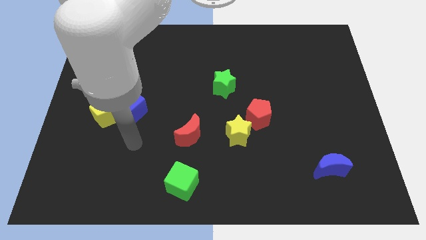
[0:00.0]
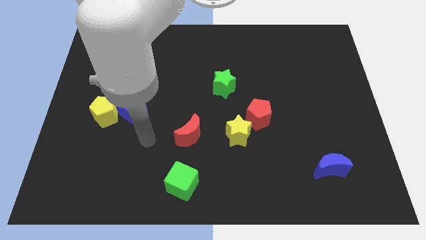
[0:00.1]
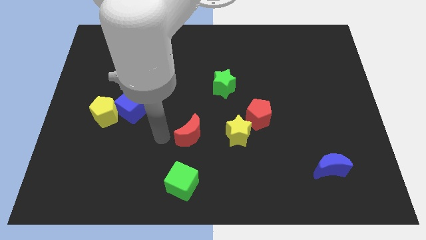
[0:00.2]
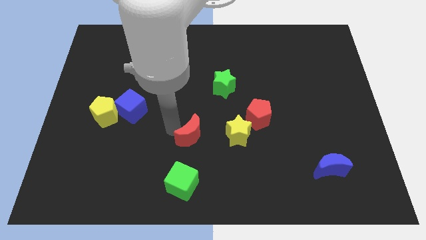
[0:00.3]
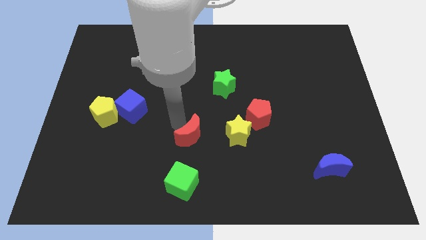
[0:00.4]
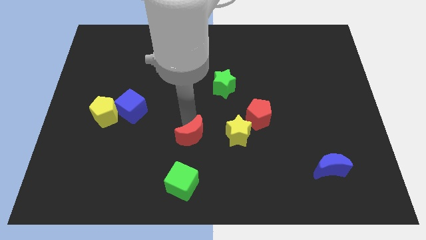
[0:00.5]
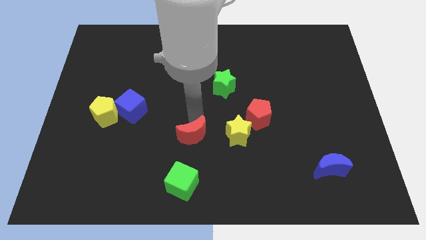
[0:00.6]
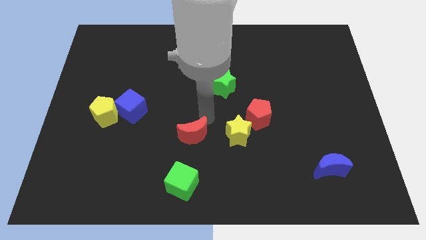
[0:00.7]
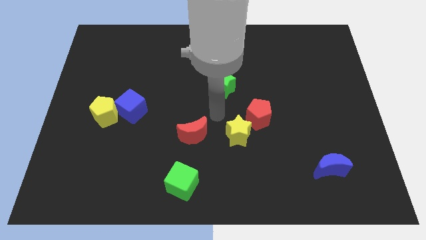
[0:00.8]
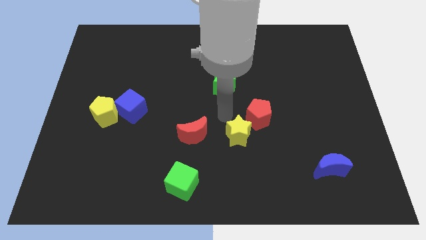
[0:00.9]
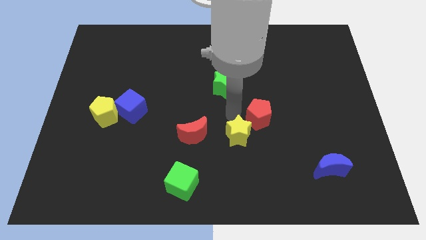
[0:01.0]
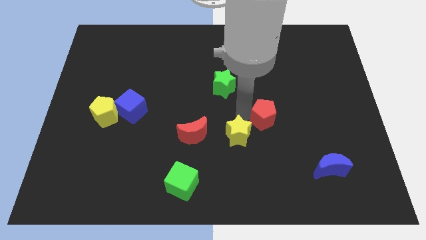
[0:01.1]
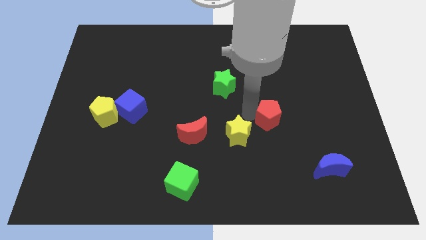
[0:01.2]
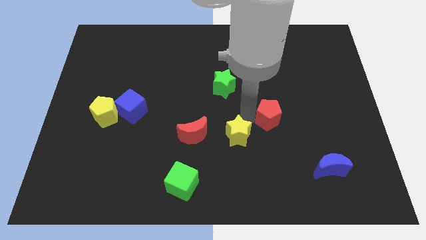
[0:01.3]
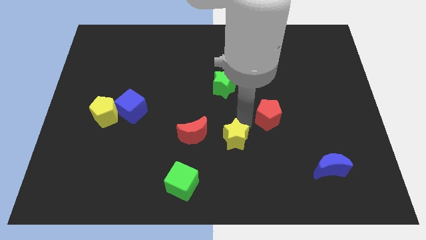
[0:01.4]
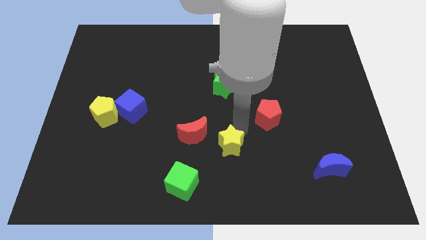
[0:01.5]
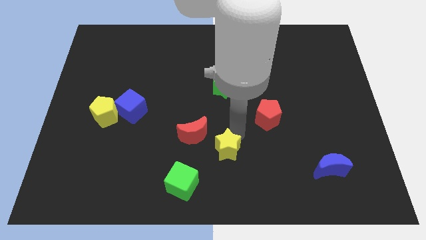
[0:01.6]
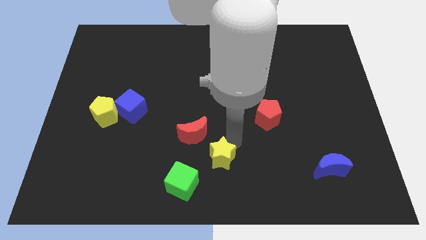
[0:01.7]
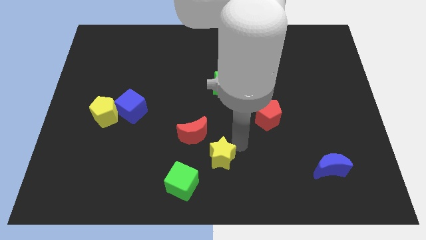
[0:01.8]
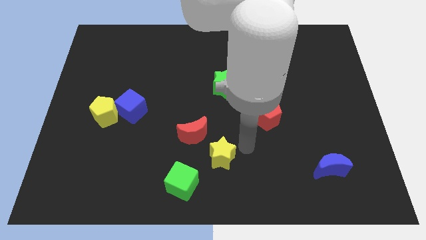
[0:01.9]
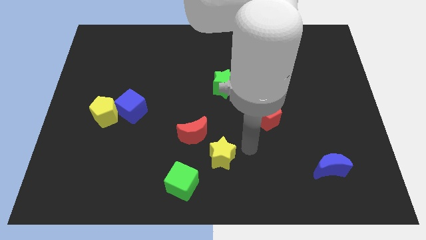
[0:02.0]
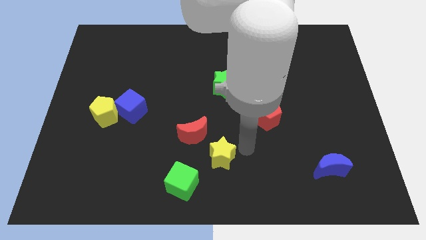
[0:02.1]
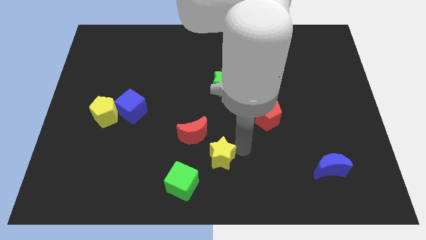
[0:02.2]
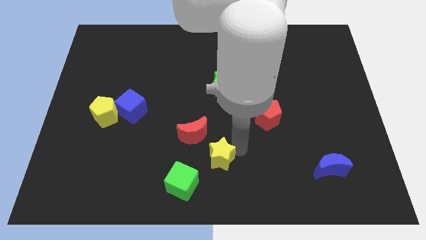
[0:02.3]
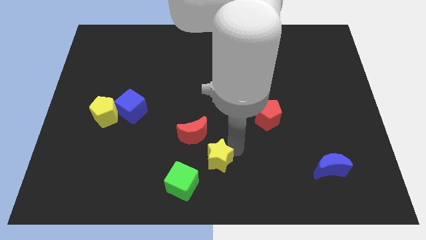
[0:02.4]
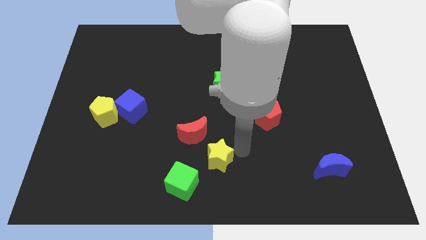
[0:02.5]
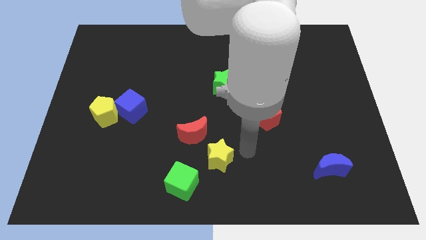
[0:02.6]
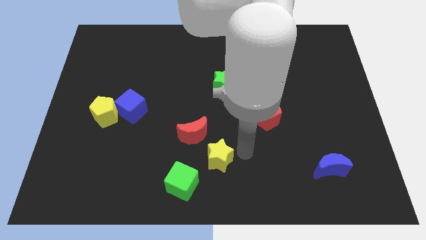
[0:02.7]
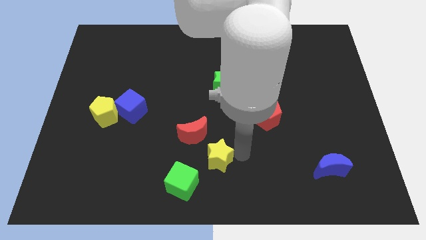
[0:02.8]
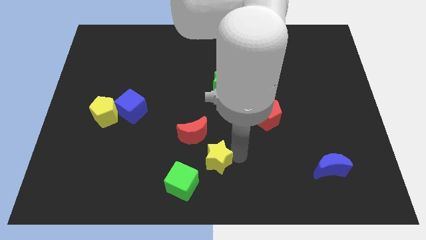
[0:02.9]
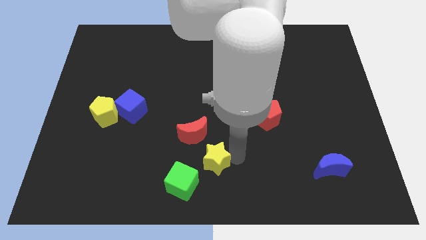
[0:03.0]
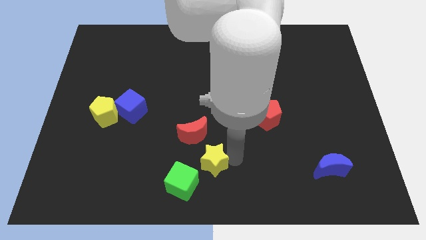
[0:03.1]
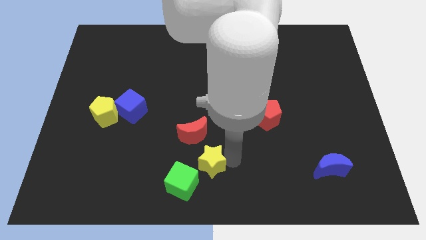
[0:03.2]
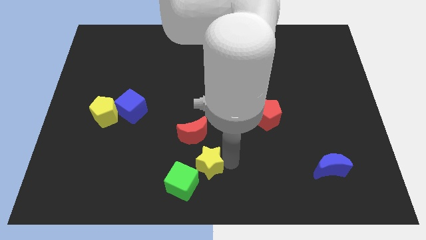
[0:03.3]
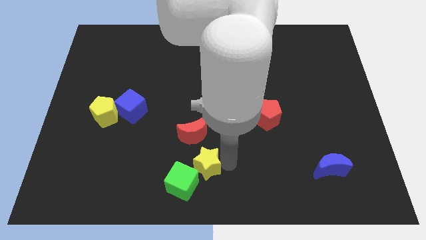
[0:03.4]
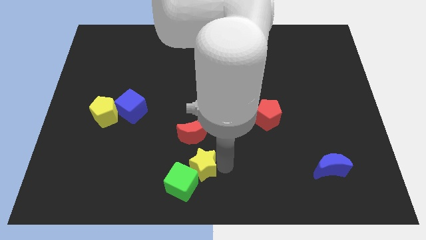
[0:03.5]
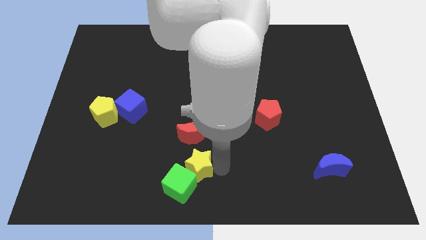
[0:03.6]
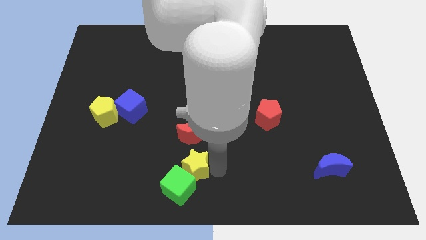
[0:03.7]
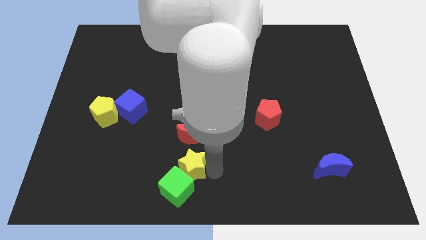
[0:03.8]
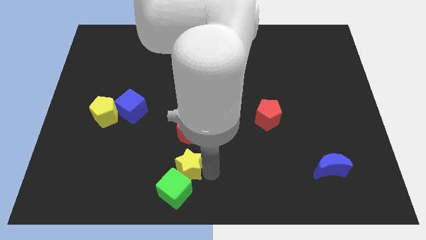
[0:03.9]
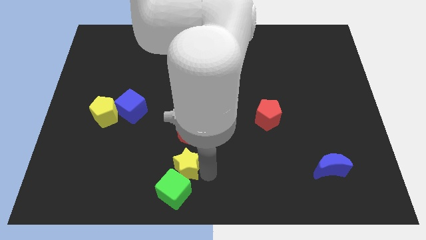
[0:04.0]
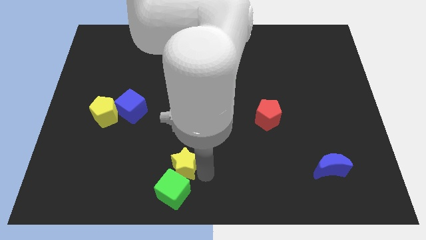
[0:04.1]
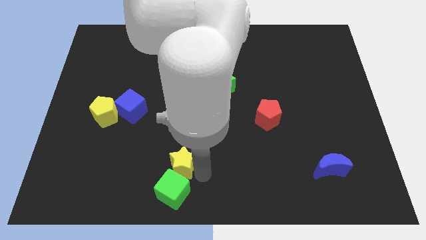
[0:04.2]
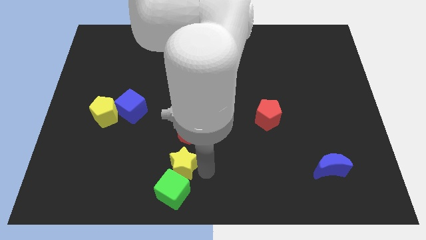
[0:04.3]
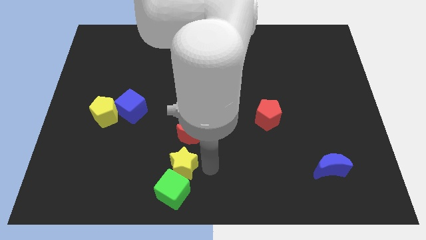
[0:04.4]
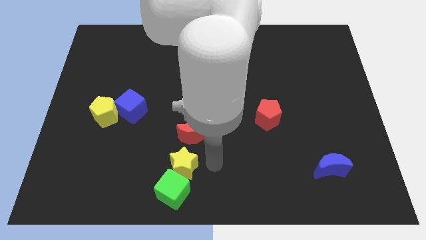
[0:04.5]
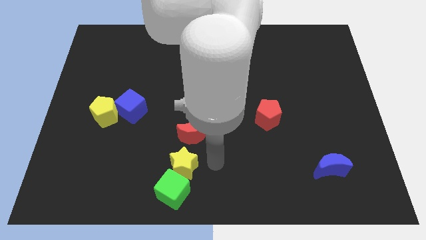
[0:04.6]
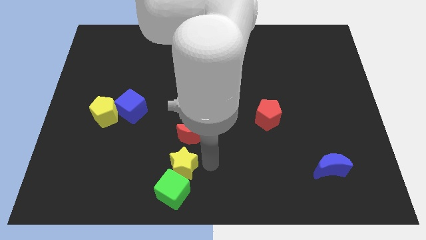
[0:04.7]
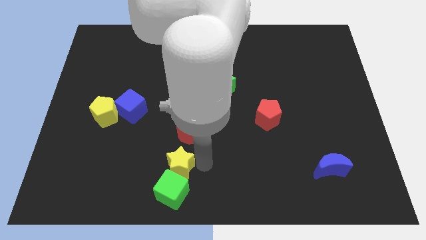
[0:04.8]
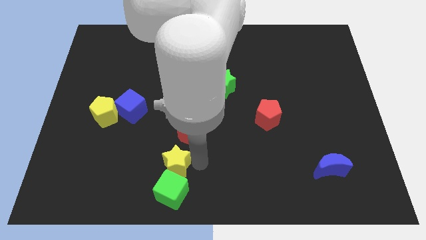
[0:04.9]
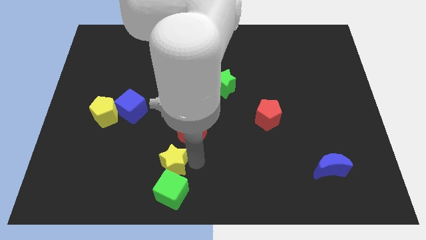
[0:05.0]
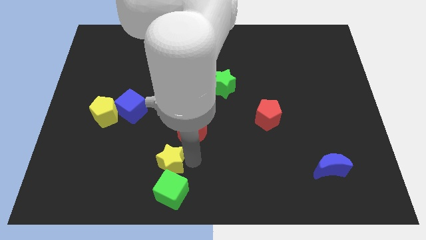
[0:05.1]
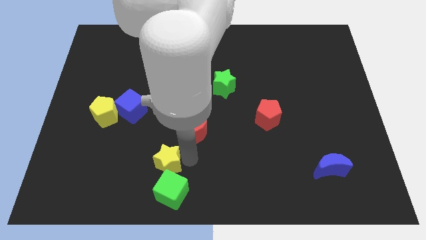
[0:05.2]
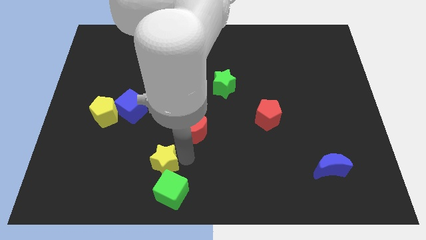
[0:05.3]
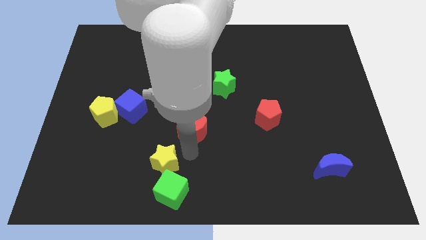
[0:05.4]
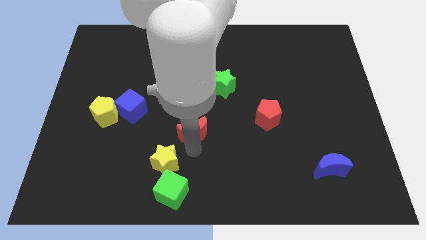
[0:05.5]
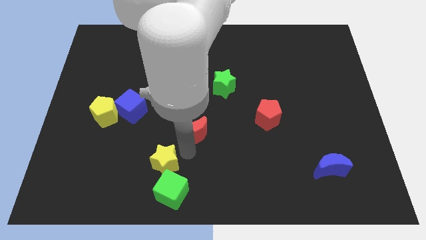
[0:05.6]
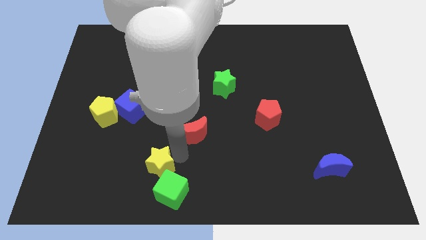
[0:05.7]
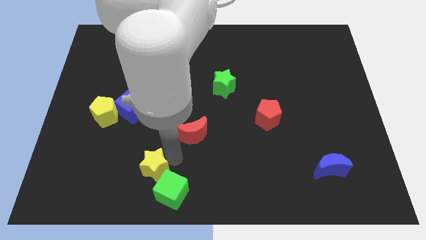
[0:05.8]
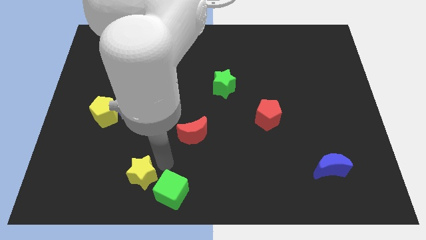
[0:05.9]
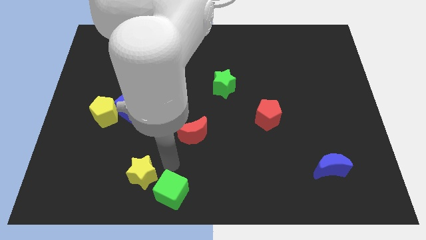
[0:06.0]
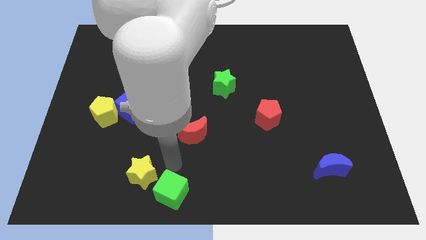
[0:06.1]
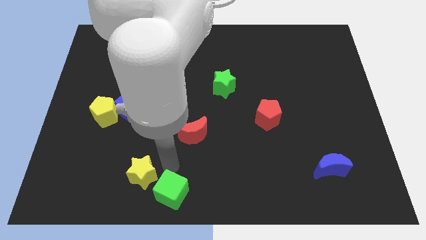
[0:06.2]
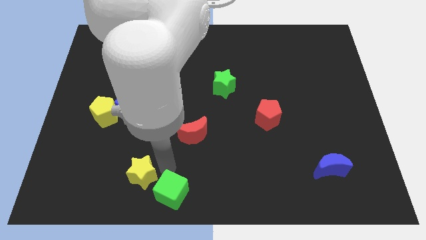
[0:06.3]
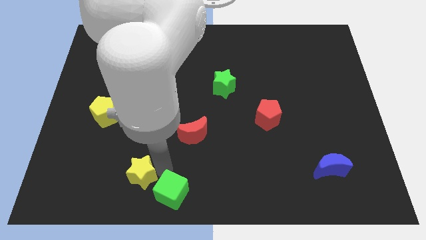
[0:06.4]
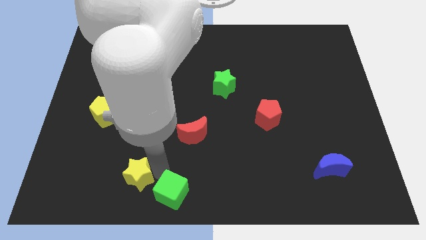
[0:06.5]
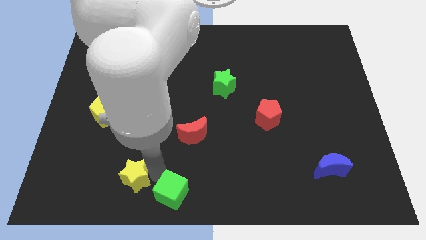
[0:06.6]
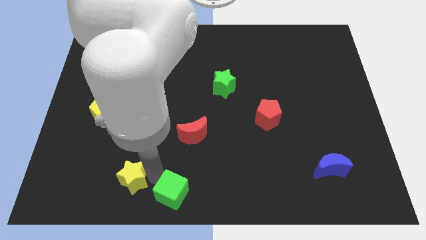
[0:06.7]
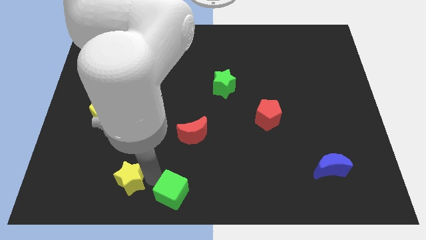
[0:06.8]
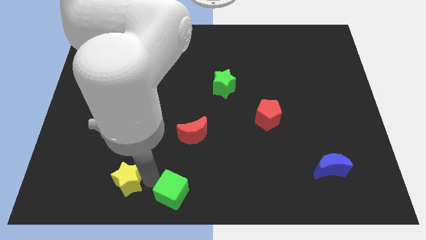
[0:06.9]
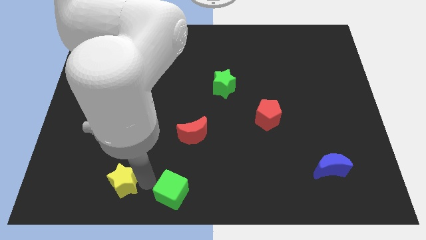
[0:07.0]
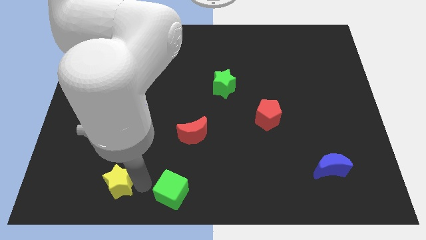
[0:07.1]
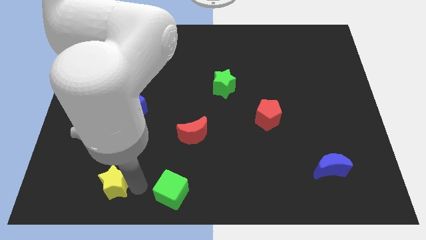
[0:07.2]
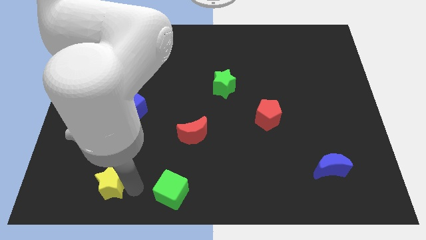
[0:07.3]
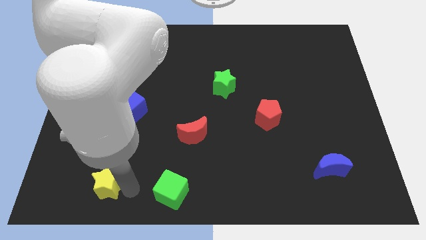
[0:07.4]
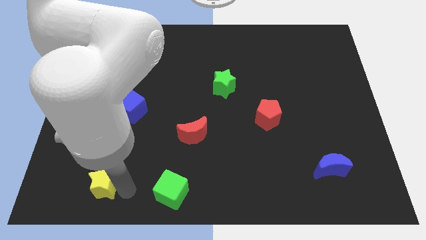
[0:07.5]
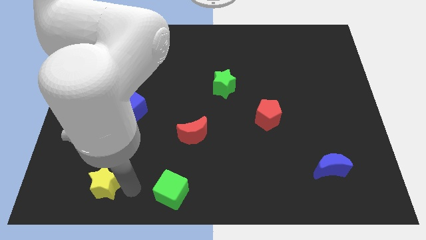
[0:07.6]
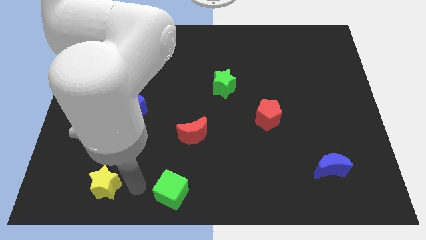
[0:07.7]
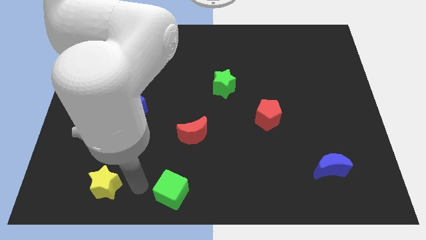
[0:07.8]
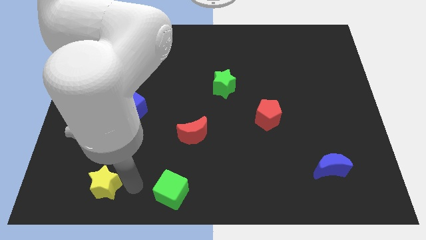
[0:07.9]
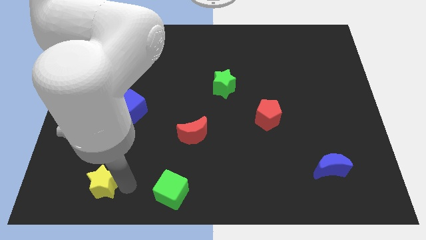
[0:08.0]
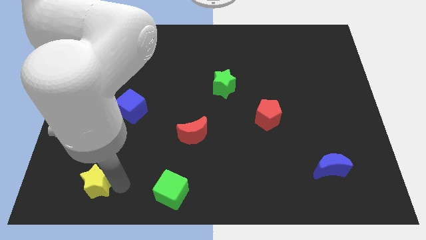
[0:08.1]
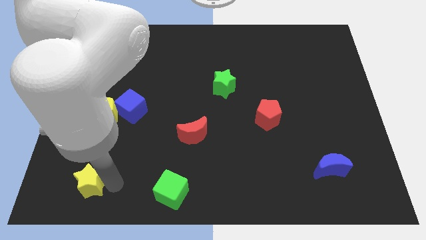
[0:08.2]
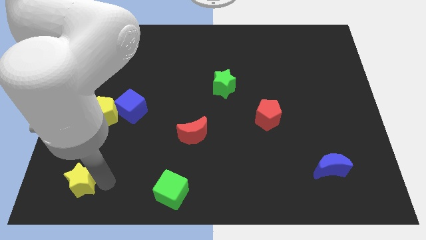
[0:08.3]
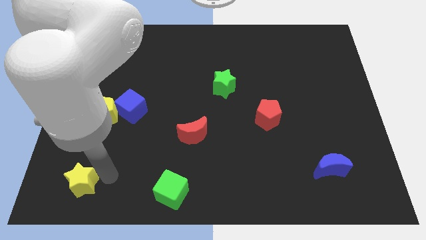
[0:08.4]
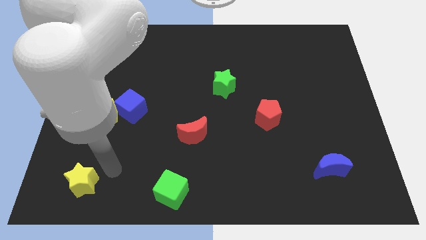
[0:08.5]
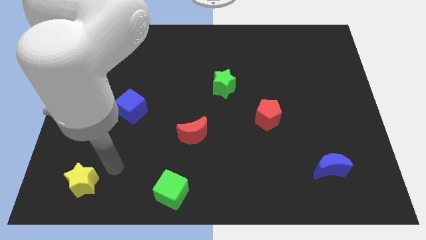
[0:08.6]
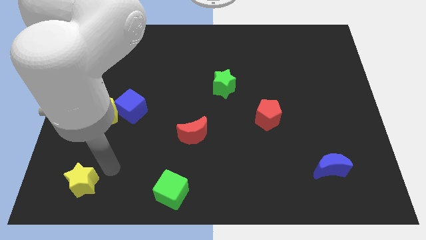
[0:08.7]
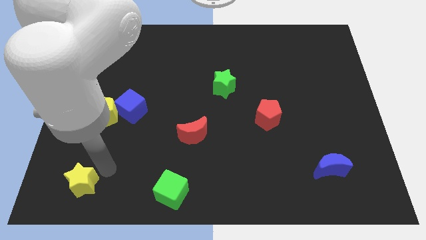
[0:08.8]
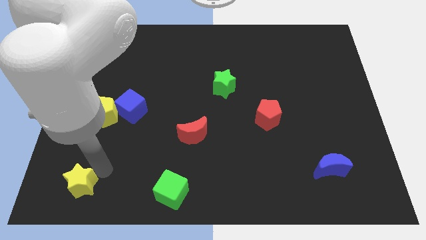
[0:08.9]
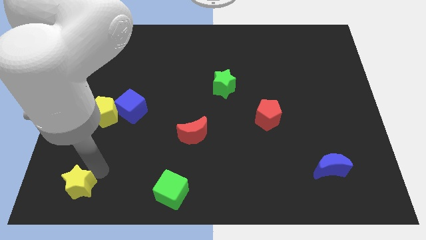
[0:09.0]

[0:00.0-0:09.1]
push the yellow star to the bottom left corner
